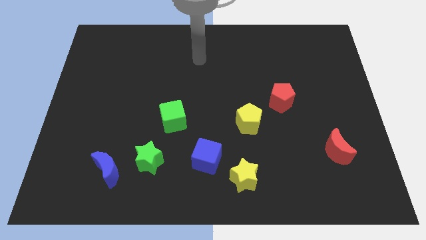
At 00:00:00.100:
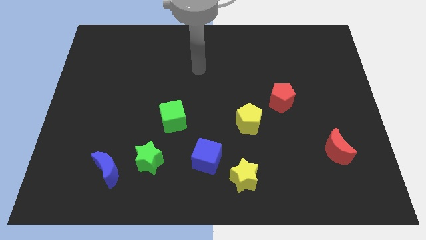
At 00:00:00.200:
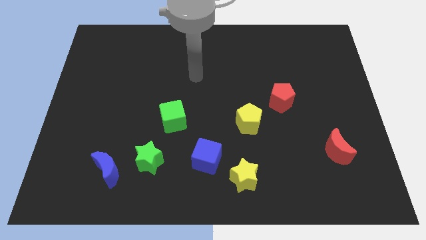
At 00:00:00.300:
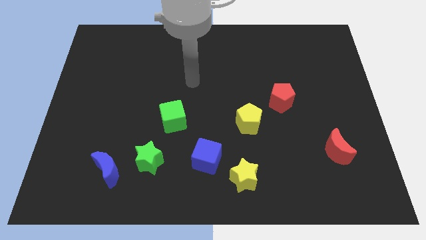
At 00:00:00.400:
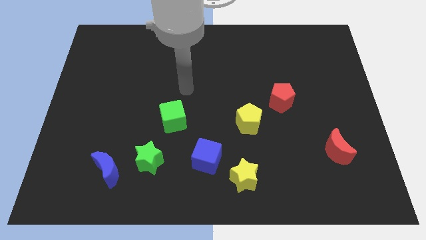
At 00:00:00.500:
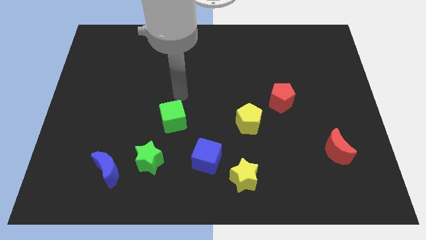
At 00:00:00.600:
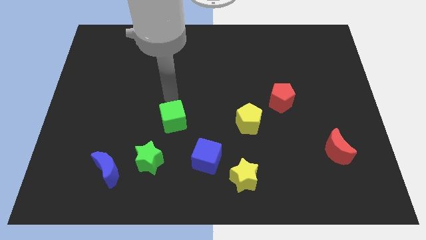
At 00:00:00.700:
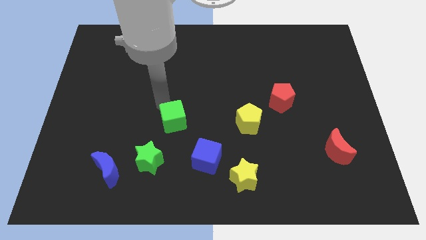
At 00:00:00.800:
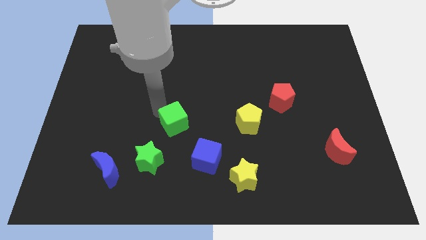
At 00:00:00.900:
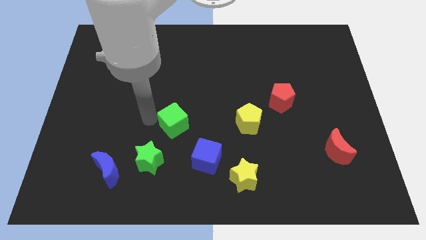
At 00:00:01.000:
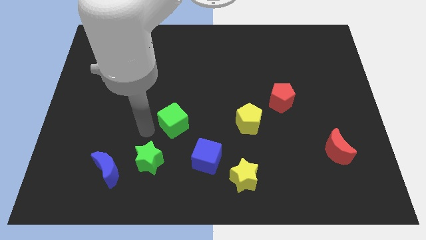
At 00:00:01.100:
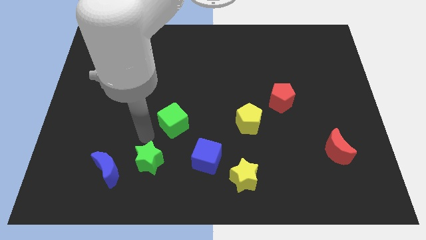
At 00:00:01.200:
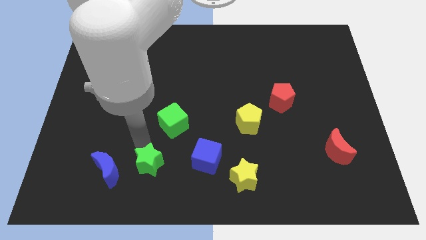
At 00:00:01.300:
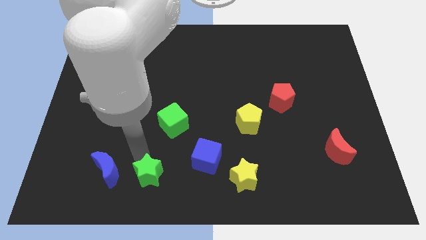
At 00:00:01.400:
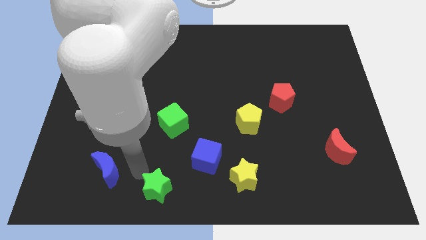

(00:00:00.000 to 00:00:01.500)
pull the blue moon apart from the green star

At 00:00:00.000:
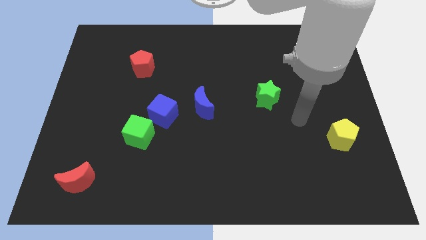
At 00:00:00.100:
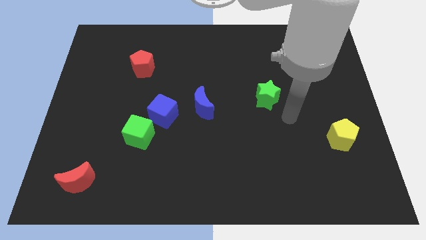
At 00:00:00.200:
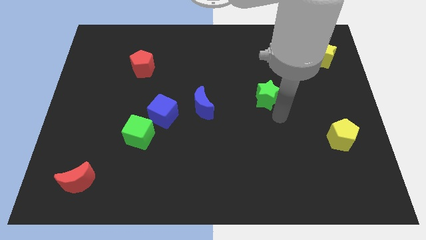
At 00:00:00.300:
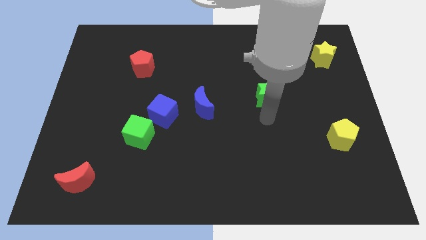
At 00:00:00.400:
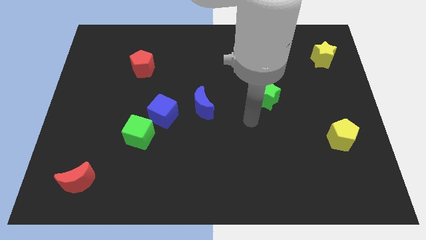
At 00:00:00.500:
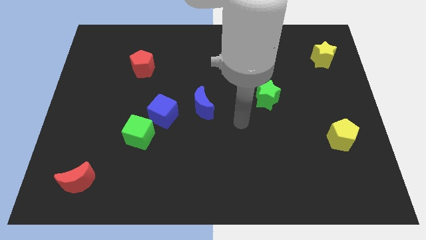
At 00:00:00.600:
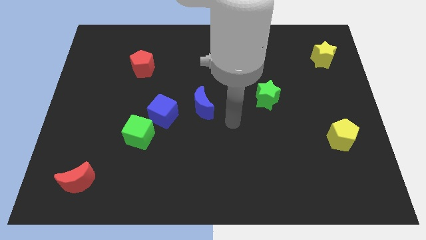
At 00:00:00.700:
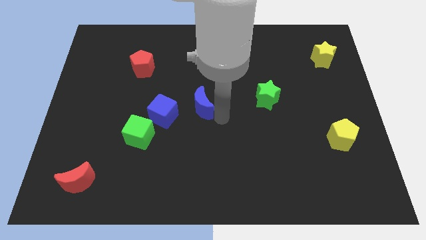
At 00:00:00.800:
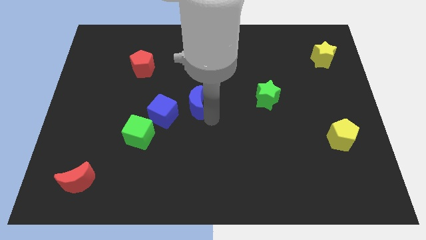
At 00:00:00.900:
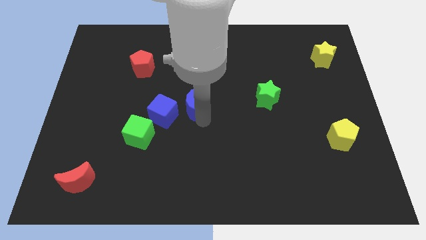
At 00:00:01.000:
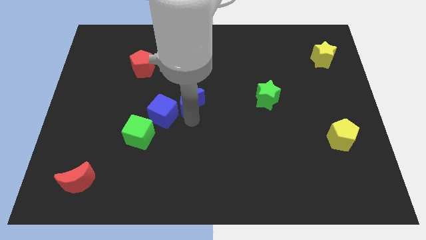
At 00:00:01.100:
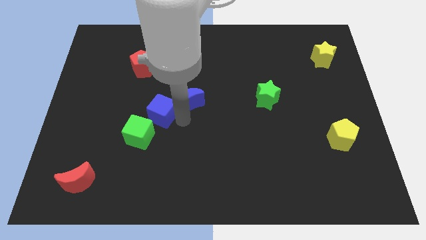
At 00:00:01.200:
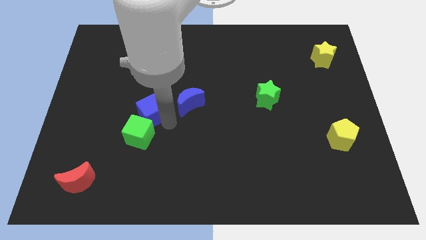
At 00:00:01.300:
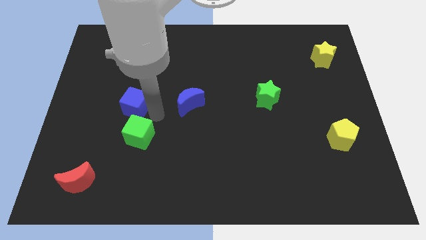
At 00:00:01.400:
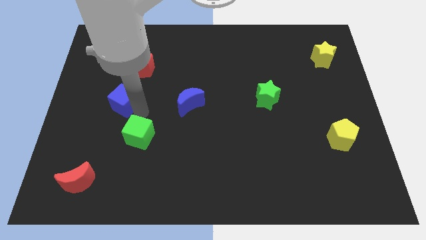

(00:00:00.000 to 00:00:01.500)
pull the green cube apart from the blue cube

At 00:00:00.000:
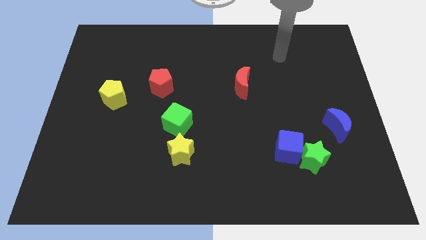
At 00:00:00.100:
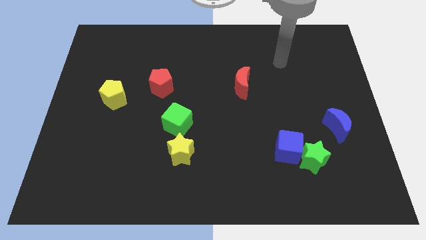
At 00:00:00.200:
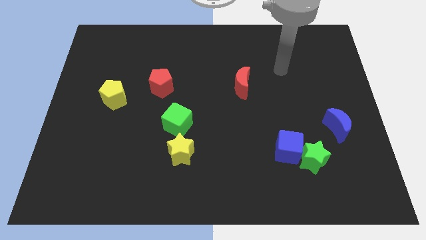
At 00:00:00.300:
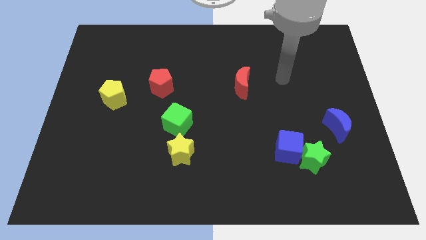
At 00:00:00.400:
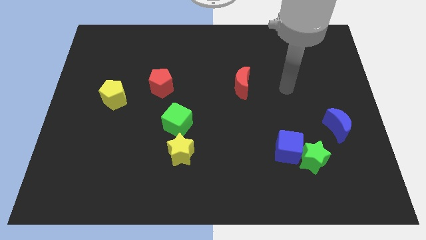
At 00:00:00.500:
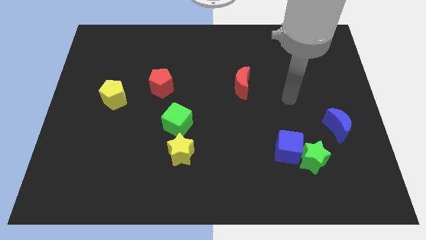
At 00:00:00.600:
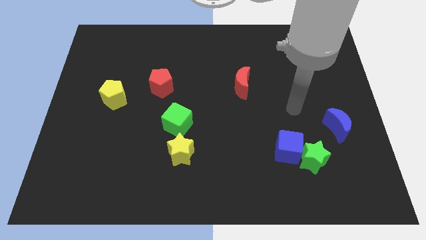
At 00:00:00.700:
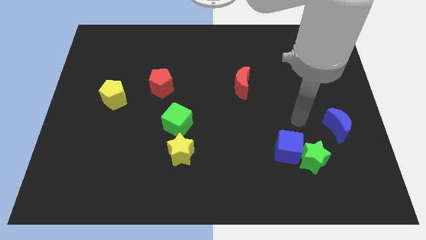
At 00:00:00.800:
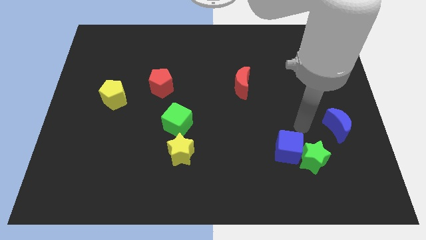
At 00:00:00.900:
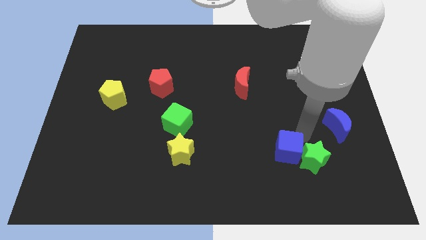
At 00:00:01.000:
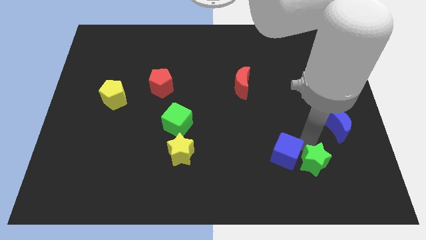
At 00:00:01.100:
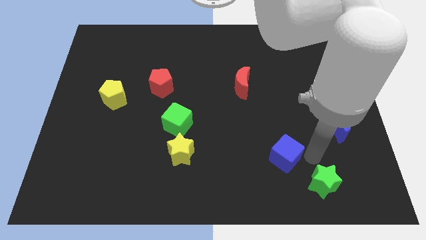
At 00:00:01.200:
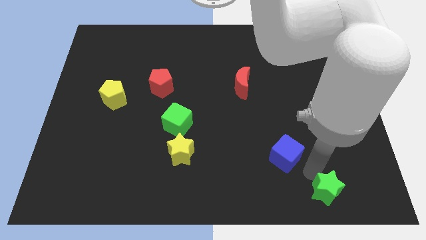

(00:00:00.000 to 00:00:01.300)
pull the blue cube apart from the green star

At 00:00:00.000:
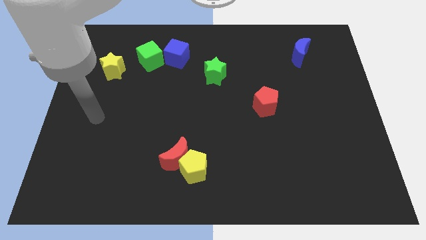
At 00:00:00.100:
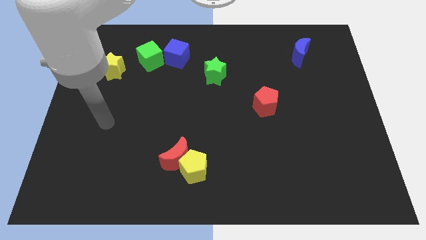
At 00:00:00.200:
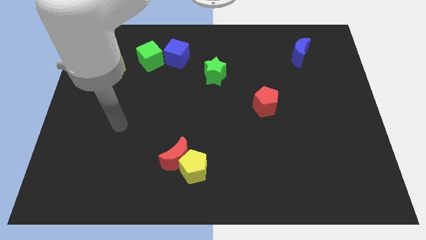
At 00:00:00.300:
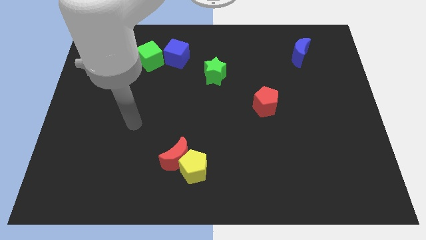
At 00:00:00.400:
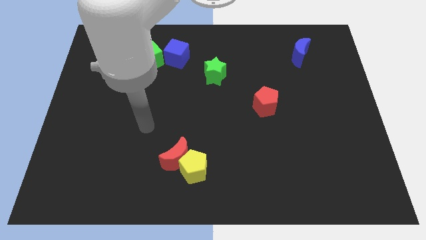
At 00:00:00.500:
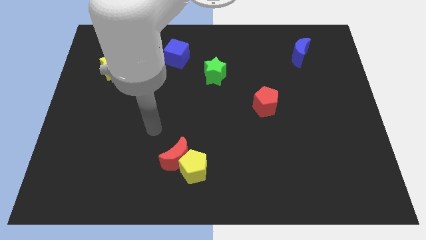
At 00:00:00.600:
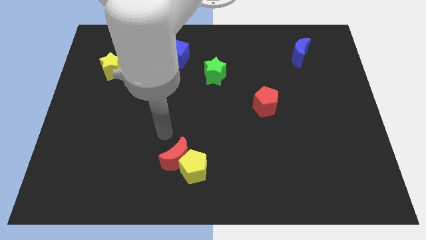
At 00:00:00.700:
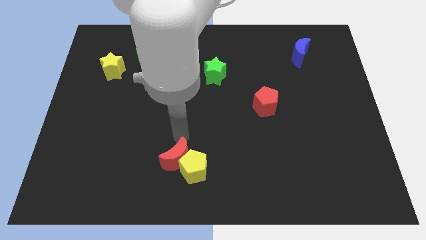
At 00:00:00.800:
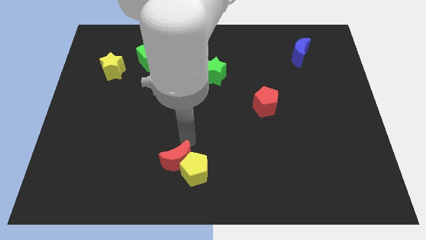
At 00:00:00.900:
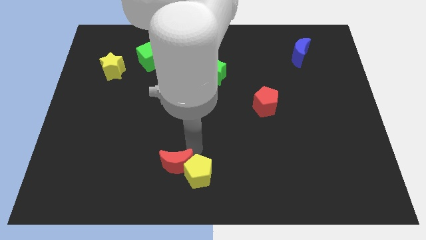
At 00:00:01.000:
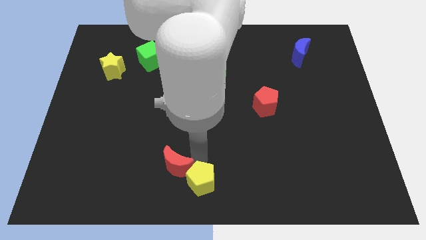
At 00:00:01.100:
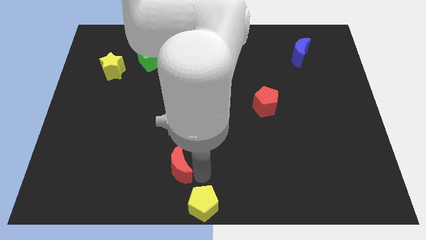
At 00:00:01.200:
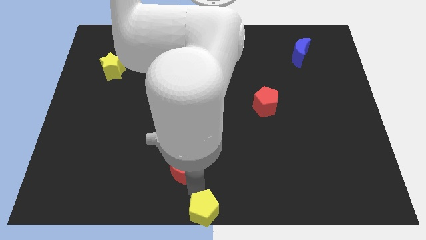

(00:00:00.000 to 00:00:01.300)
pull the red moon apart from the yellow pentagon

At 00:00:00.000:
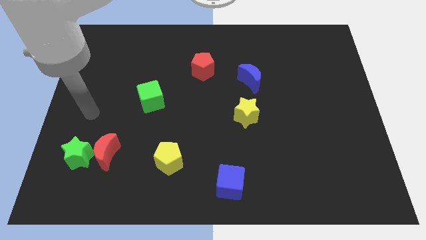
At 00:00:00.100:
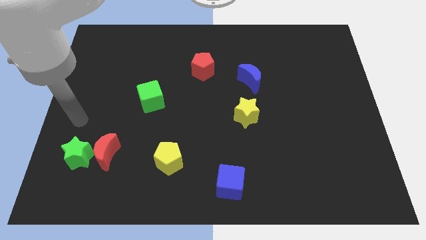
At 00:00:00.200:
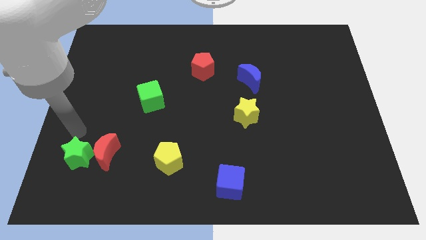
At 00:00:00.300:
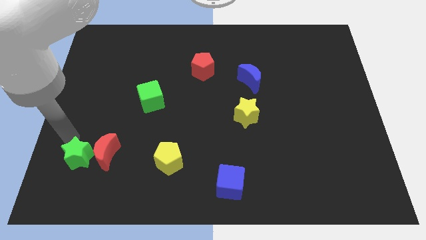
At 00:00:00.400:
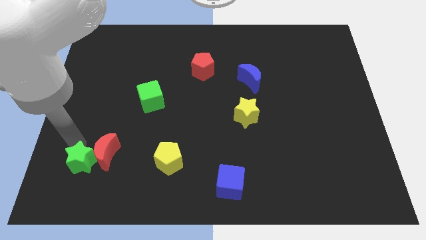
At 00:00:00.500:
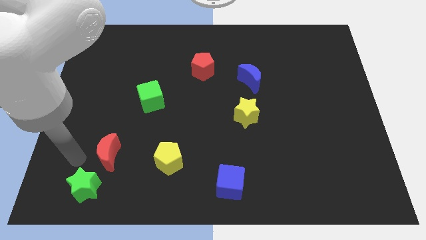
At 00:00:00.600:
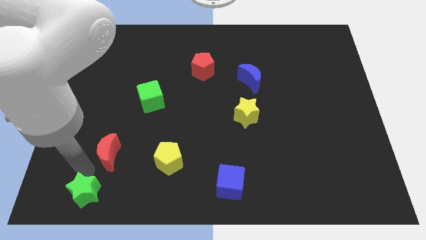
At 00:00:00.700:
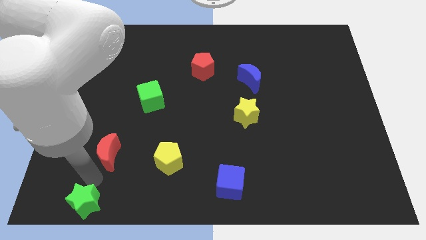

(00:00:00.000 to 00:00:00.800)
move the red moon away from the green star

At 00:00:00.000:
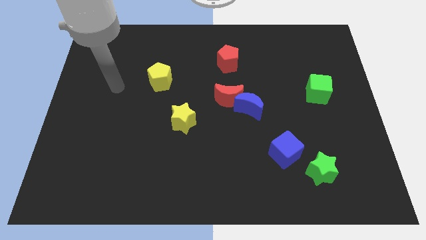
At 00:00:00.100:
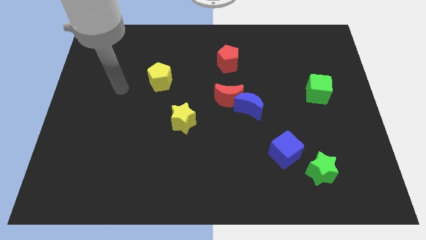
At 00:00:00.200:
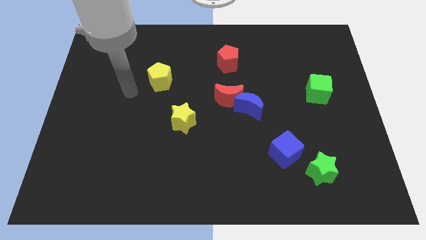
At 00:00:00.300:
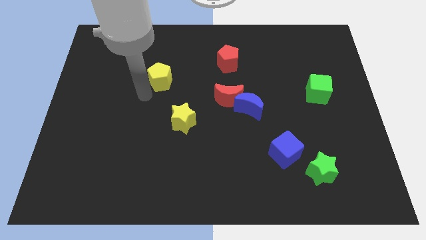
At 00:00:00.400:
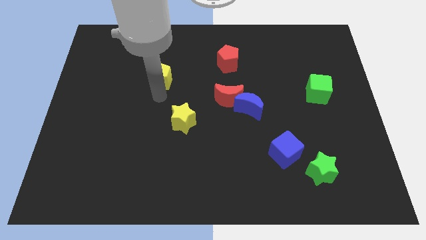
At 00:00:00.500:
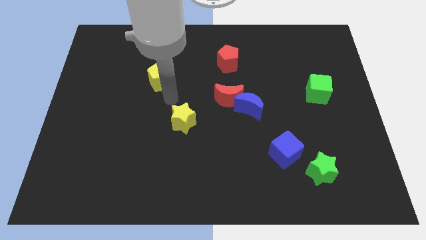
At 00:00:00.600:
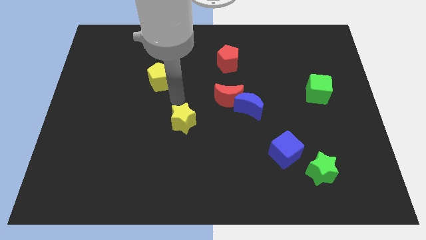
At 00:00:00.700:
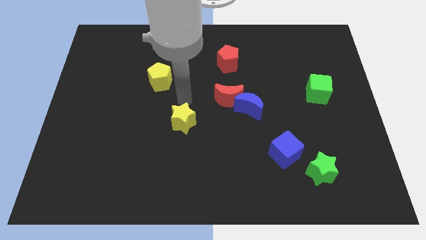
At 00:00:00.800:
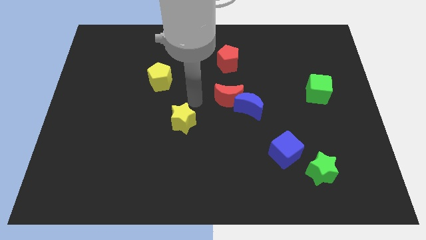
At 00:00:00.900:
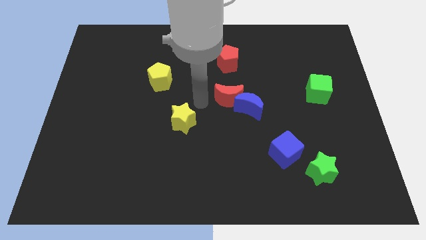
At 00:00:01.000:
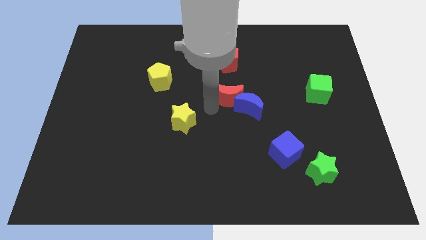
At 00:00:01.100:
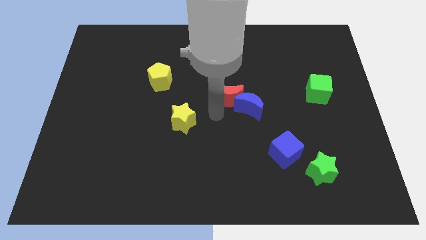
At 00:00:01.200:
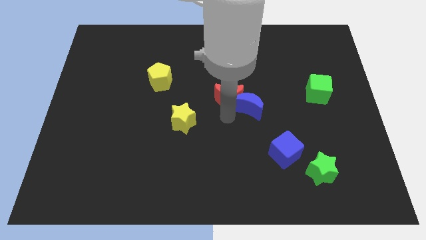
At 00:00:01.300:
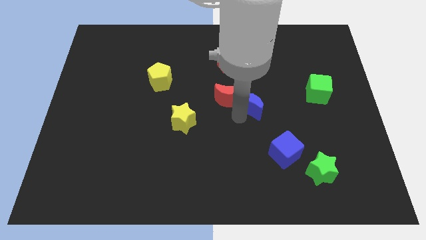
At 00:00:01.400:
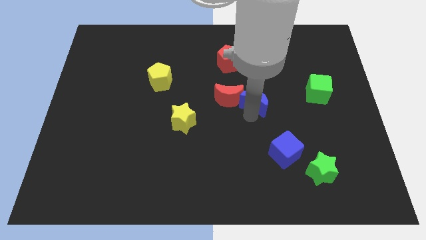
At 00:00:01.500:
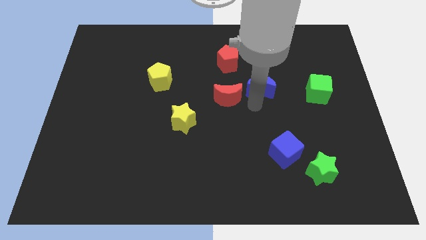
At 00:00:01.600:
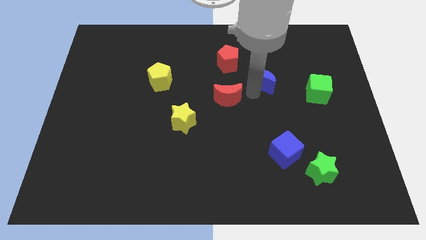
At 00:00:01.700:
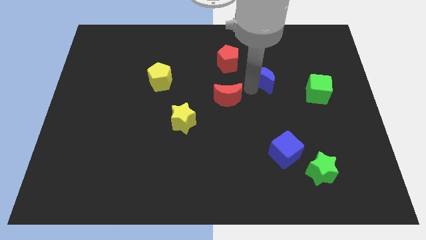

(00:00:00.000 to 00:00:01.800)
pull the red moon apart from the blue moon

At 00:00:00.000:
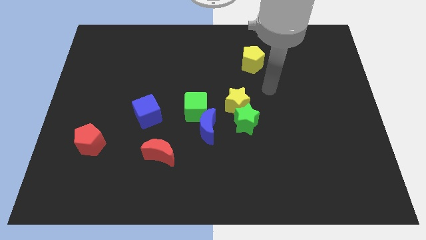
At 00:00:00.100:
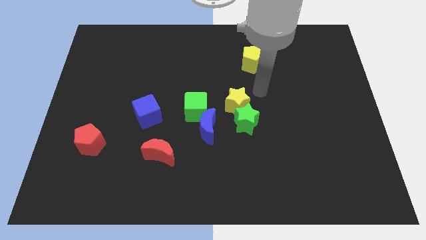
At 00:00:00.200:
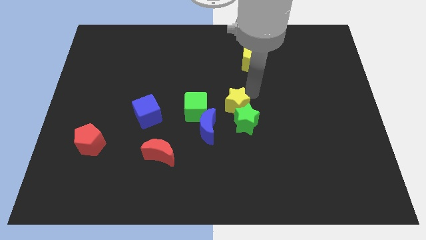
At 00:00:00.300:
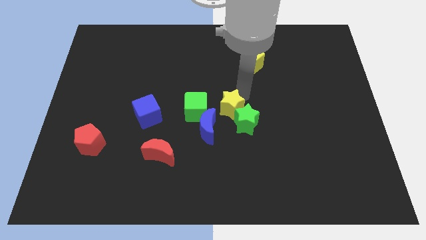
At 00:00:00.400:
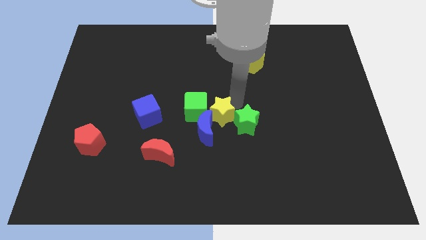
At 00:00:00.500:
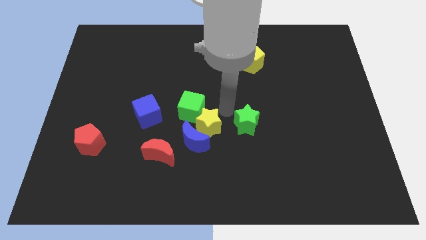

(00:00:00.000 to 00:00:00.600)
pull the green star apart from the yellow star and blue moon

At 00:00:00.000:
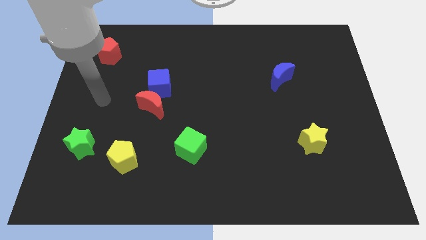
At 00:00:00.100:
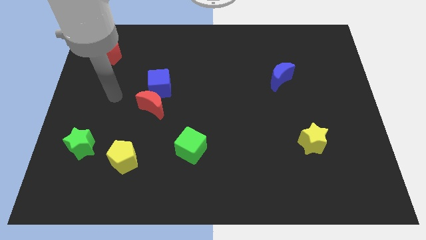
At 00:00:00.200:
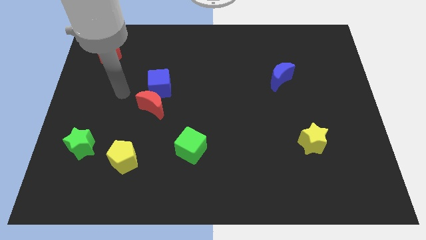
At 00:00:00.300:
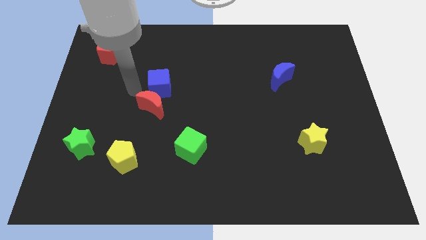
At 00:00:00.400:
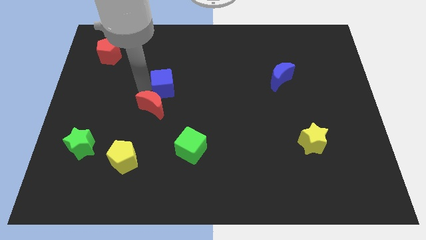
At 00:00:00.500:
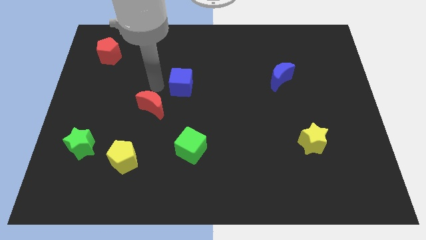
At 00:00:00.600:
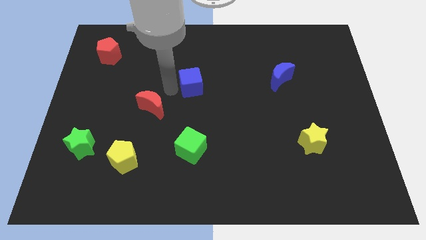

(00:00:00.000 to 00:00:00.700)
pull the red moon apart from the blue cube
